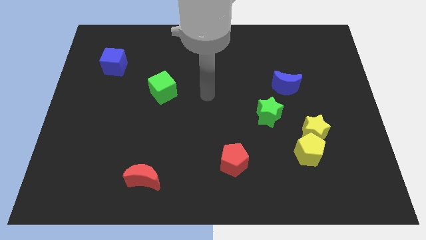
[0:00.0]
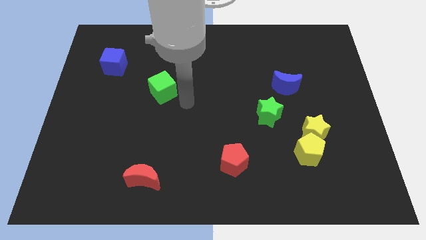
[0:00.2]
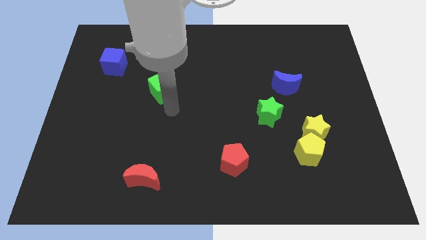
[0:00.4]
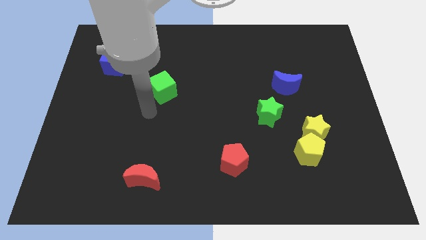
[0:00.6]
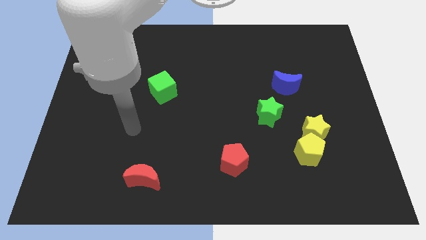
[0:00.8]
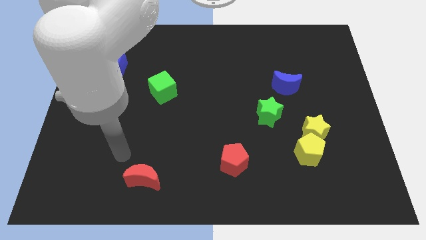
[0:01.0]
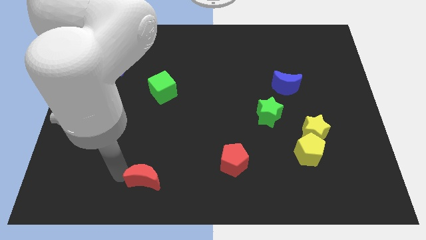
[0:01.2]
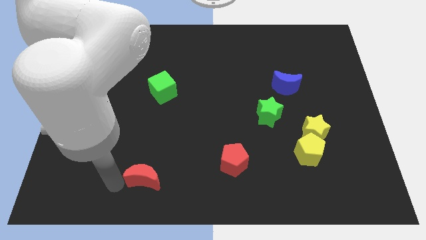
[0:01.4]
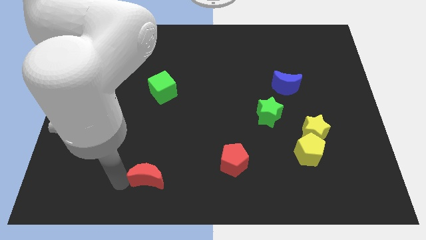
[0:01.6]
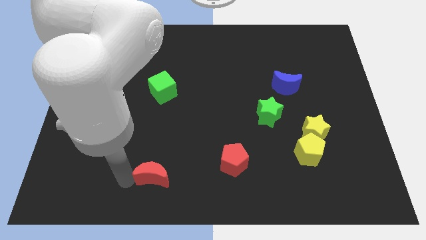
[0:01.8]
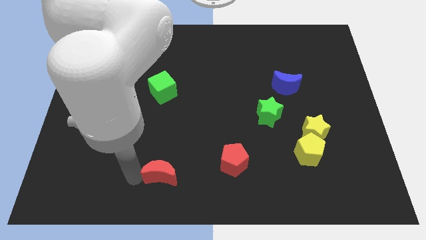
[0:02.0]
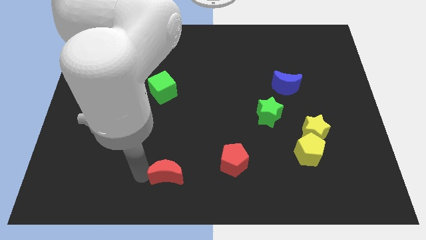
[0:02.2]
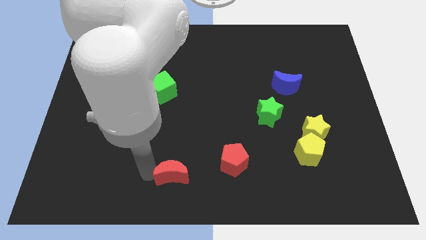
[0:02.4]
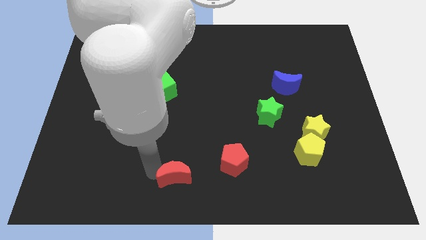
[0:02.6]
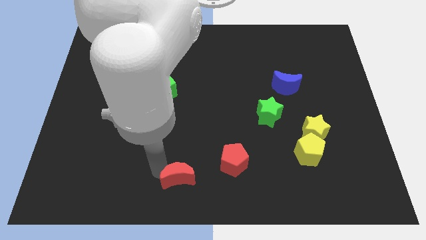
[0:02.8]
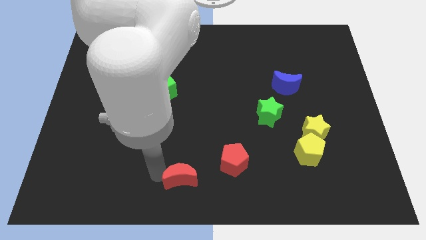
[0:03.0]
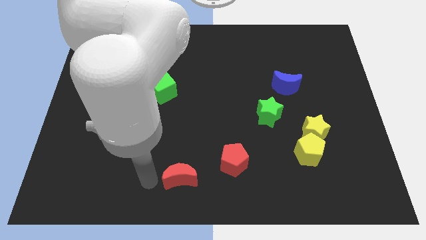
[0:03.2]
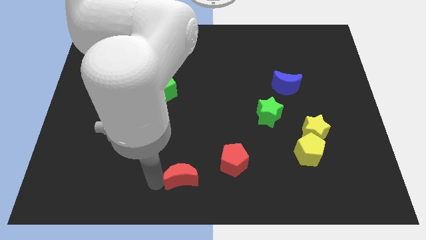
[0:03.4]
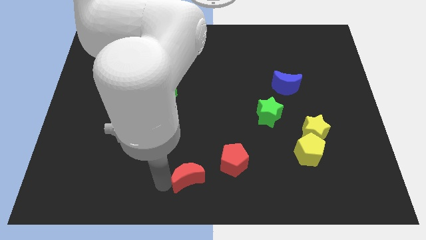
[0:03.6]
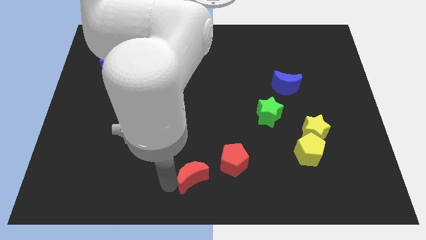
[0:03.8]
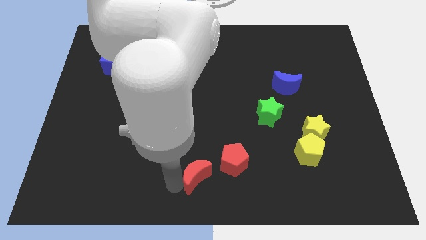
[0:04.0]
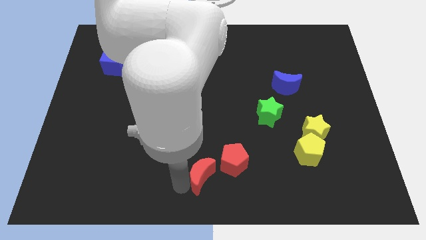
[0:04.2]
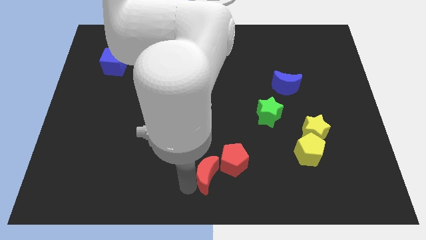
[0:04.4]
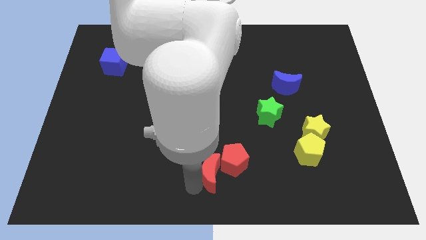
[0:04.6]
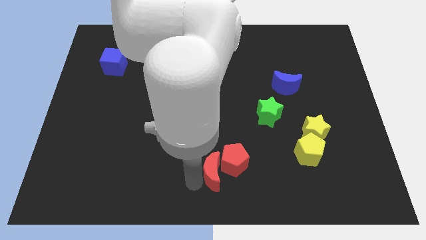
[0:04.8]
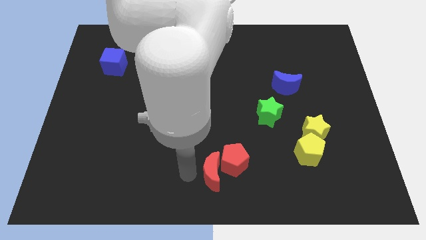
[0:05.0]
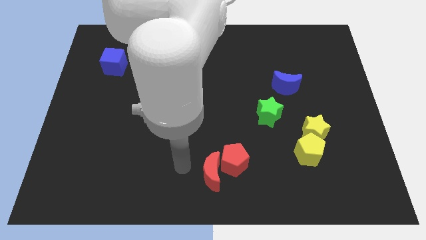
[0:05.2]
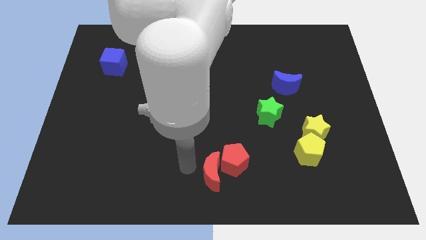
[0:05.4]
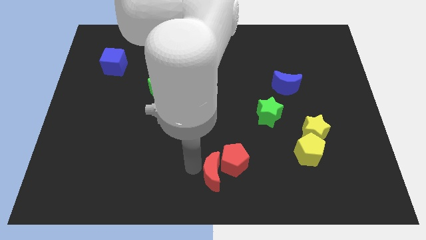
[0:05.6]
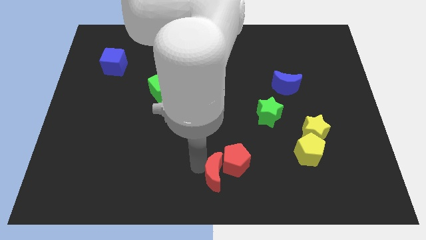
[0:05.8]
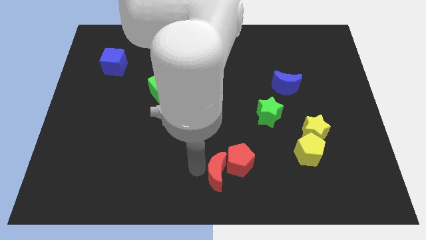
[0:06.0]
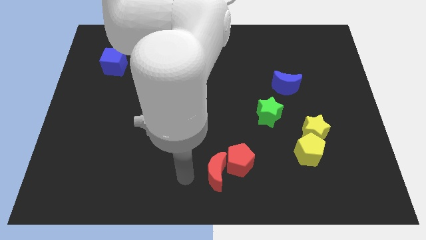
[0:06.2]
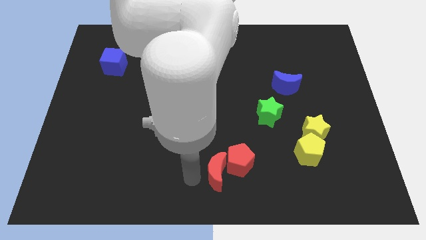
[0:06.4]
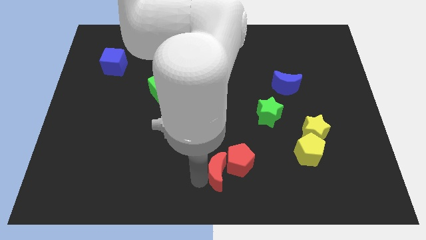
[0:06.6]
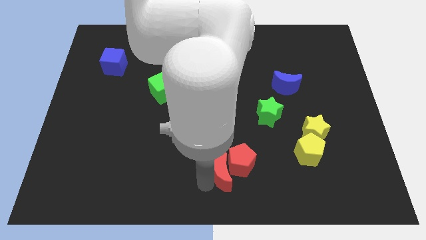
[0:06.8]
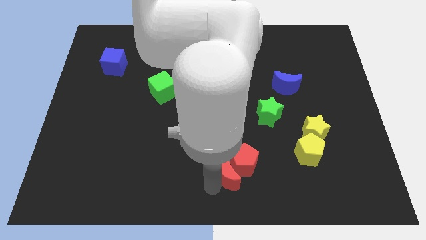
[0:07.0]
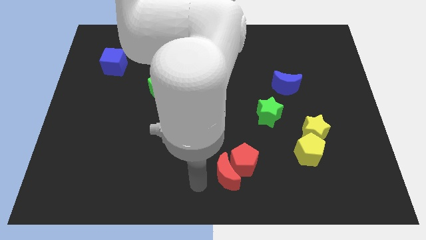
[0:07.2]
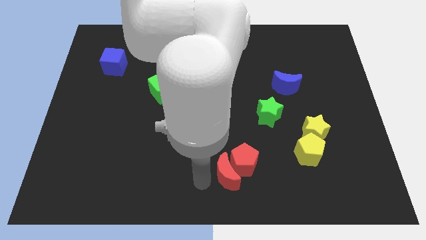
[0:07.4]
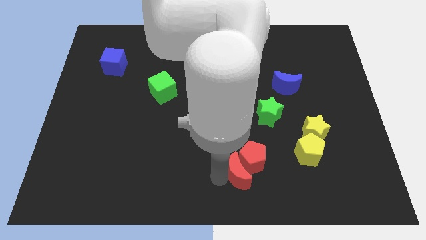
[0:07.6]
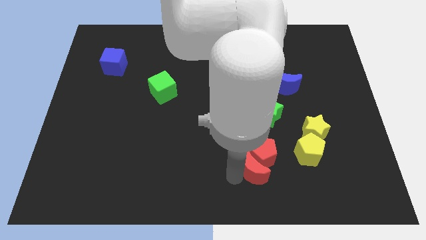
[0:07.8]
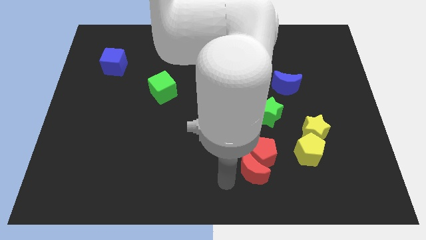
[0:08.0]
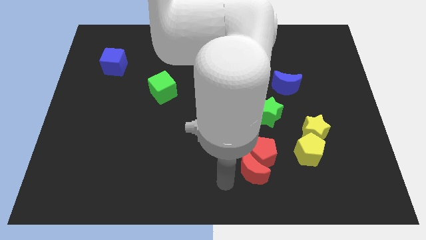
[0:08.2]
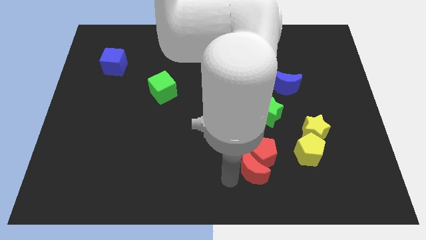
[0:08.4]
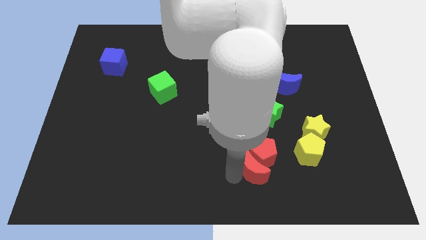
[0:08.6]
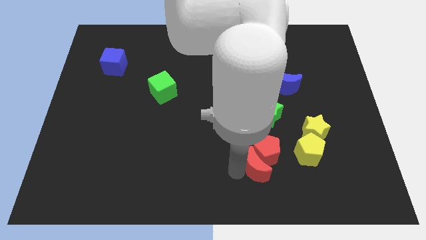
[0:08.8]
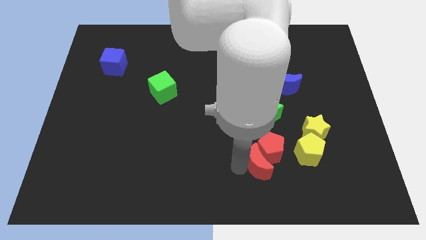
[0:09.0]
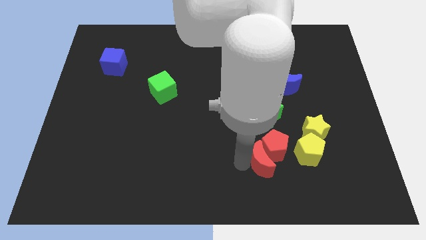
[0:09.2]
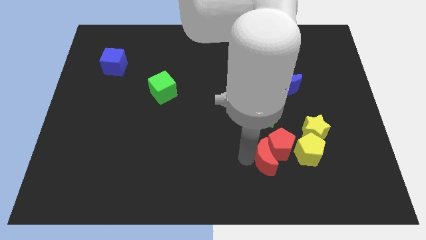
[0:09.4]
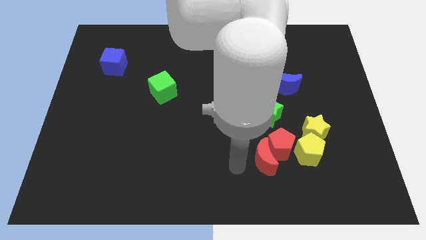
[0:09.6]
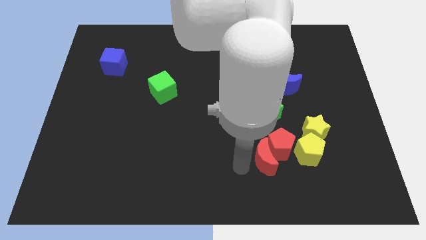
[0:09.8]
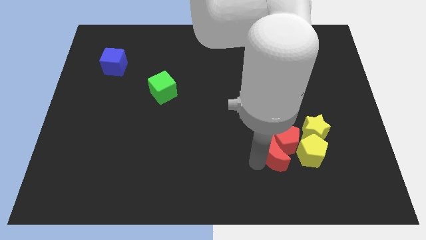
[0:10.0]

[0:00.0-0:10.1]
push the red moon to the bottom left of the yellow star

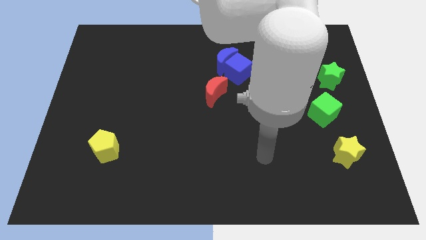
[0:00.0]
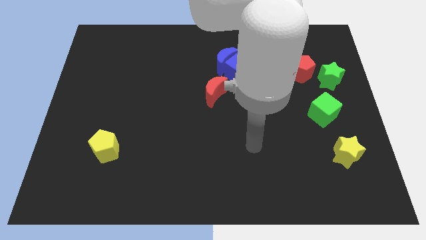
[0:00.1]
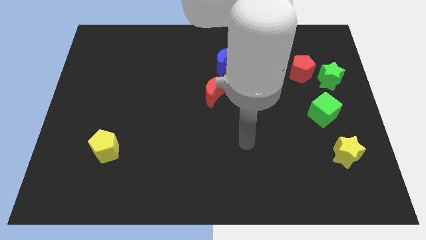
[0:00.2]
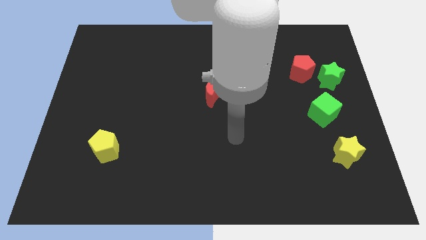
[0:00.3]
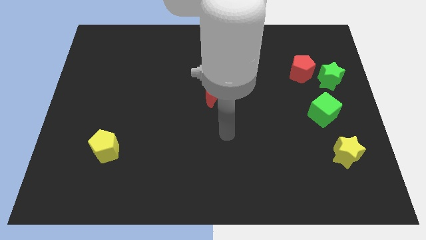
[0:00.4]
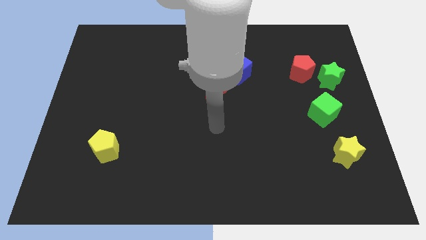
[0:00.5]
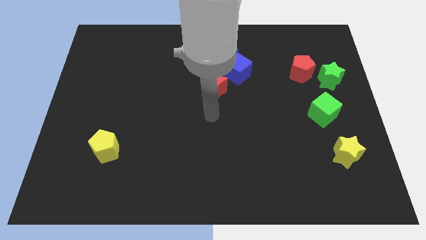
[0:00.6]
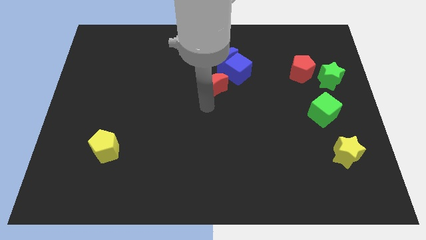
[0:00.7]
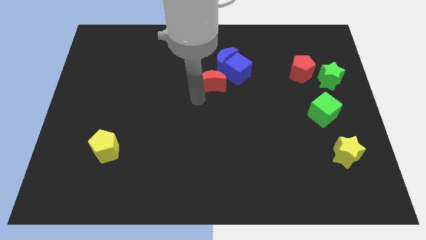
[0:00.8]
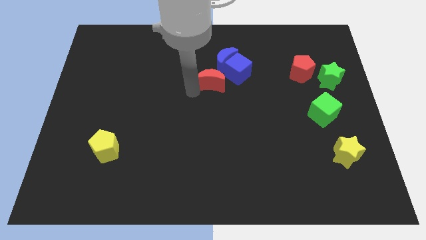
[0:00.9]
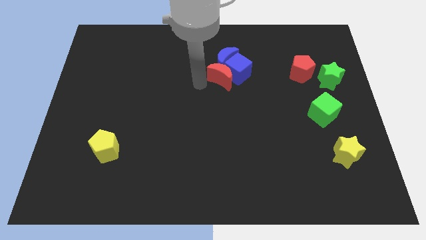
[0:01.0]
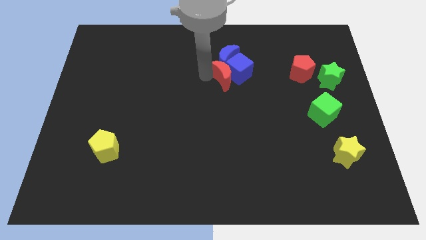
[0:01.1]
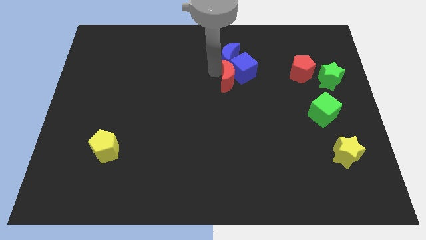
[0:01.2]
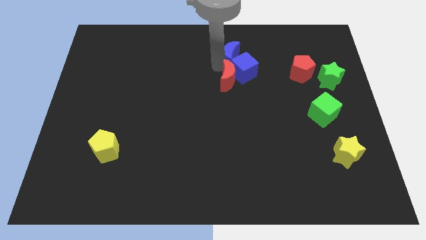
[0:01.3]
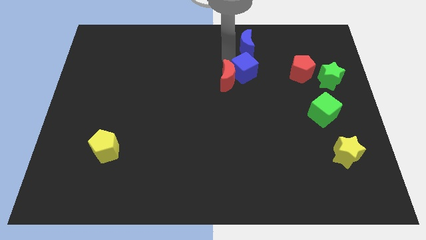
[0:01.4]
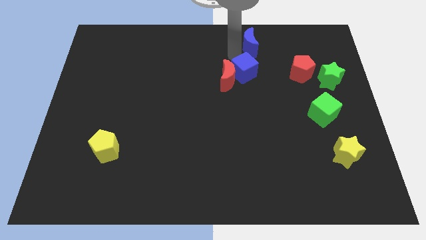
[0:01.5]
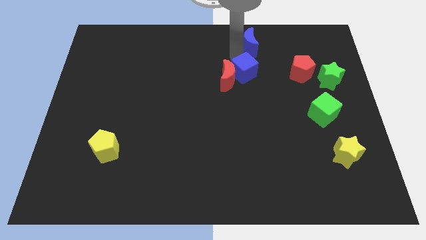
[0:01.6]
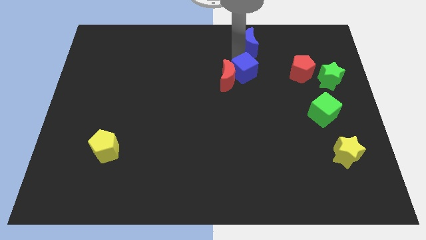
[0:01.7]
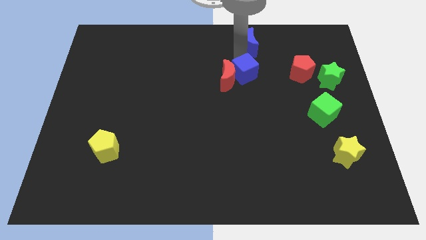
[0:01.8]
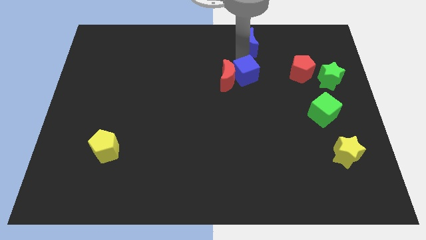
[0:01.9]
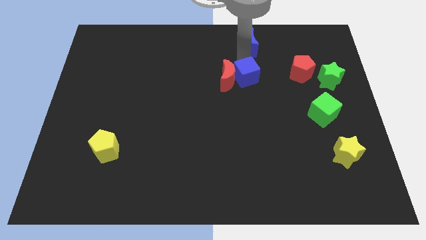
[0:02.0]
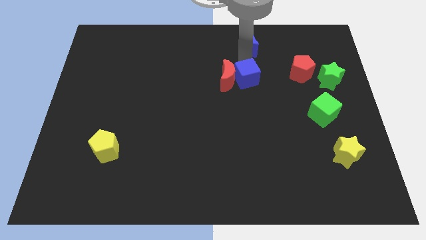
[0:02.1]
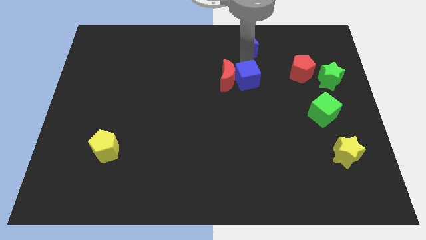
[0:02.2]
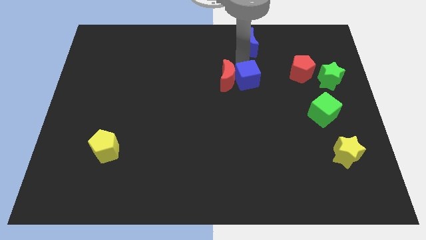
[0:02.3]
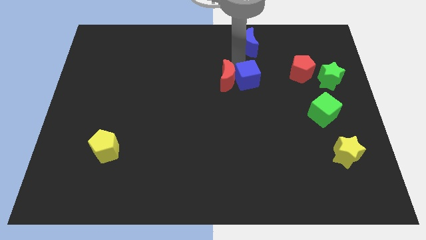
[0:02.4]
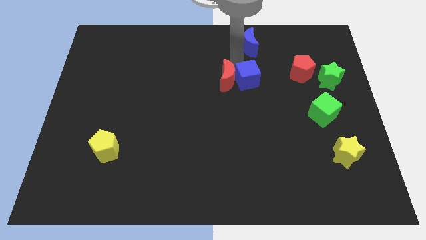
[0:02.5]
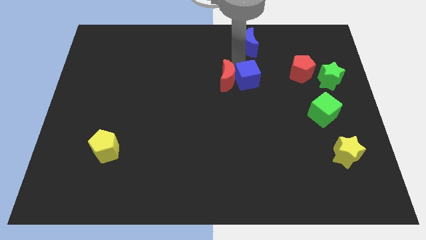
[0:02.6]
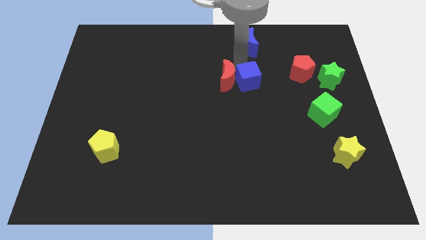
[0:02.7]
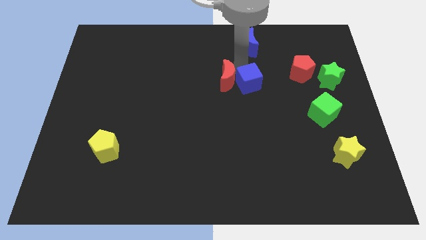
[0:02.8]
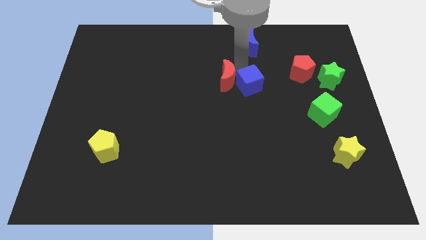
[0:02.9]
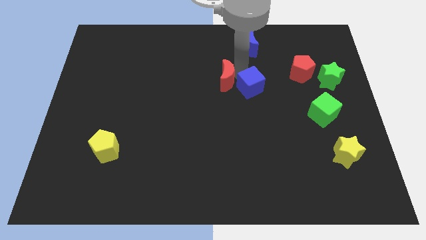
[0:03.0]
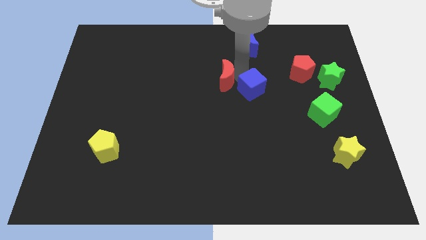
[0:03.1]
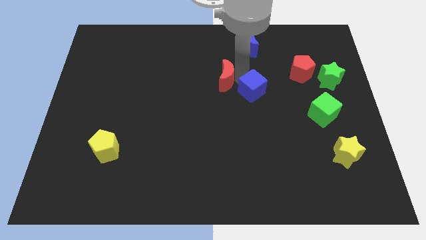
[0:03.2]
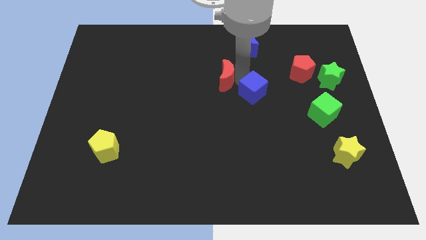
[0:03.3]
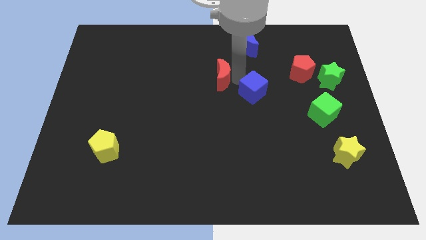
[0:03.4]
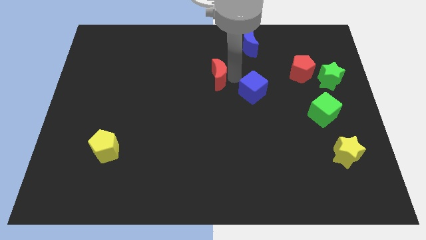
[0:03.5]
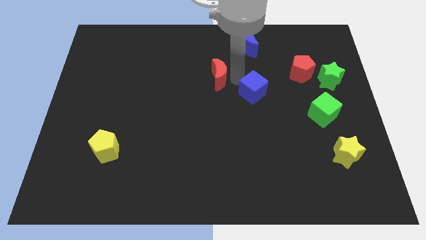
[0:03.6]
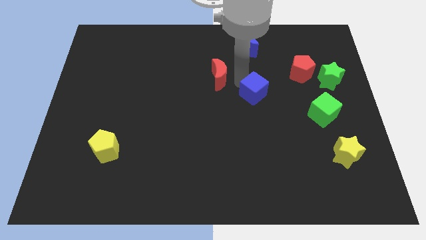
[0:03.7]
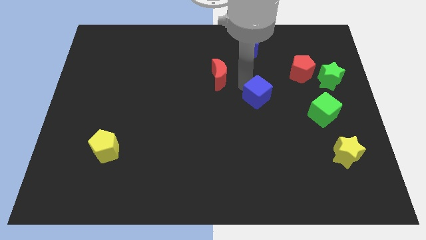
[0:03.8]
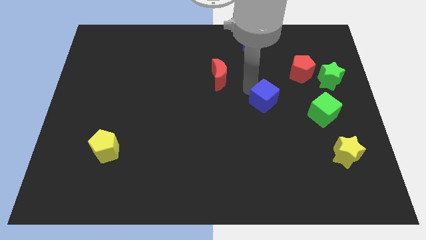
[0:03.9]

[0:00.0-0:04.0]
put the blue cube left of the green cube
